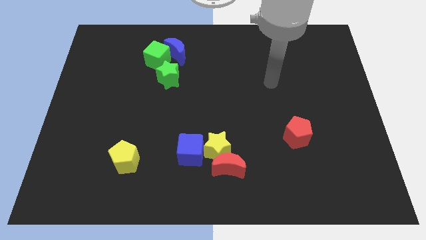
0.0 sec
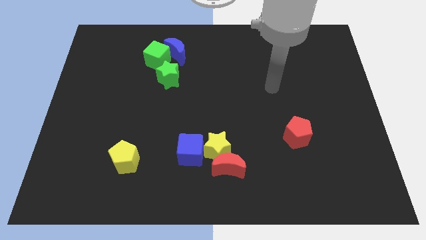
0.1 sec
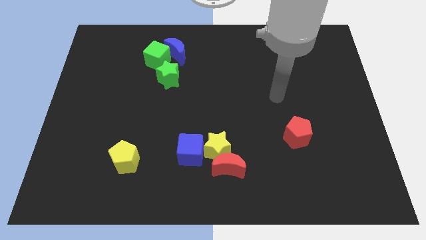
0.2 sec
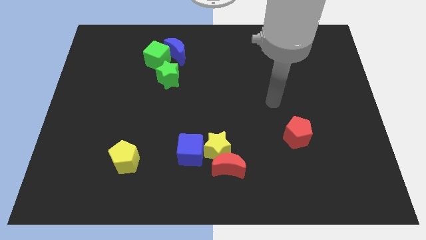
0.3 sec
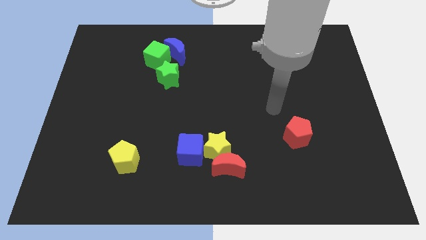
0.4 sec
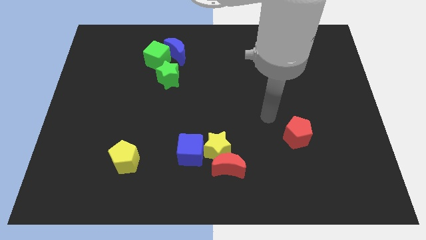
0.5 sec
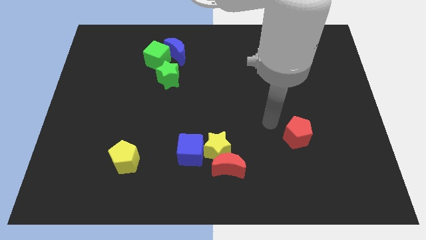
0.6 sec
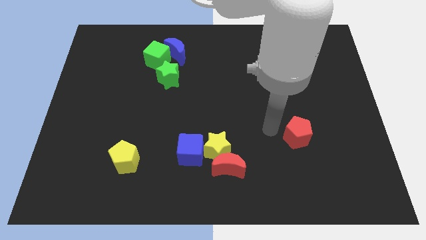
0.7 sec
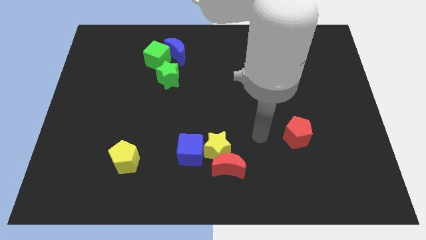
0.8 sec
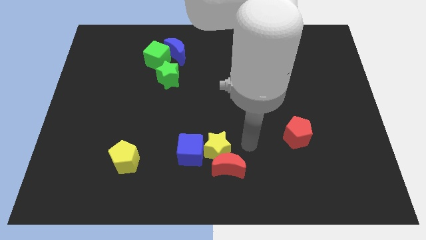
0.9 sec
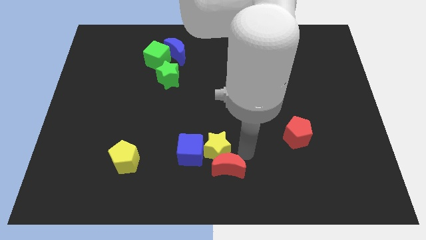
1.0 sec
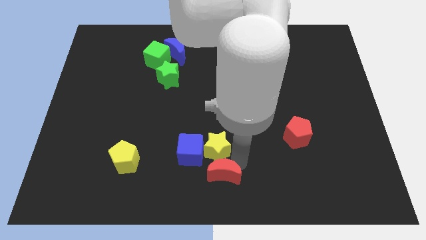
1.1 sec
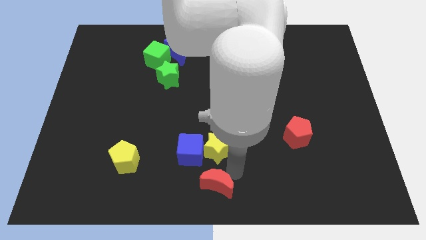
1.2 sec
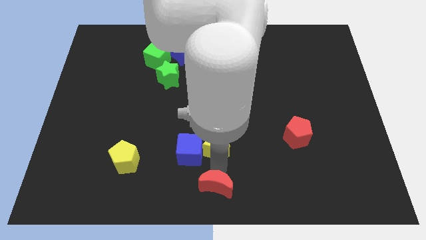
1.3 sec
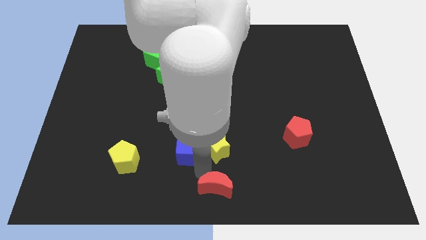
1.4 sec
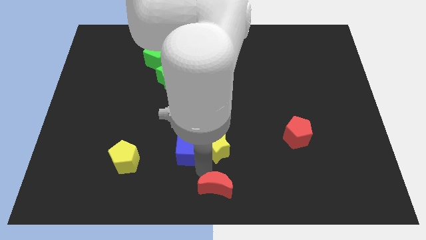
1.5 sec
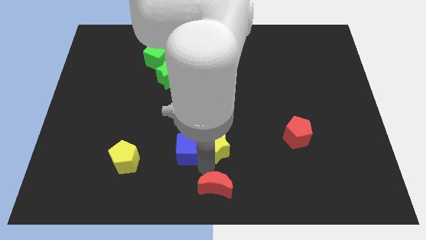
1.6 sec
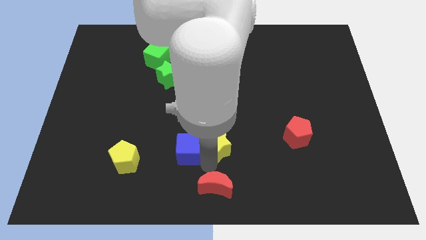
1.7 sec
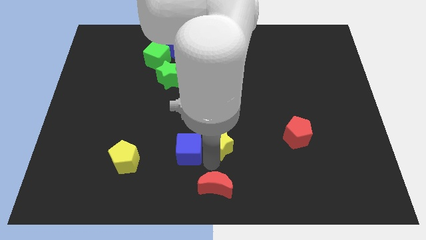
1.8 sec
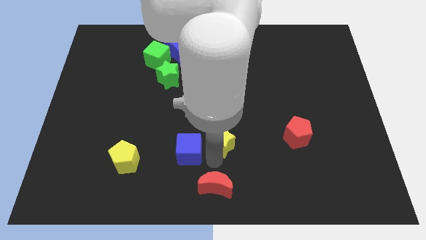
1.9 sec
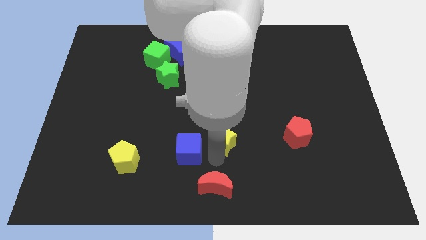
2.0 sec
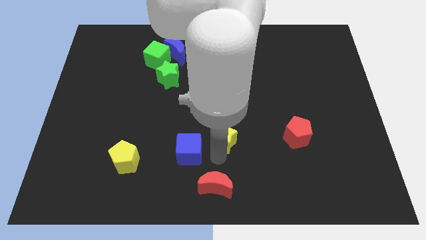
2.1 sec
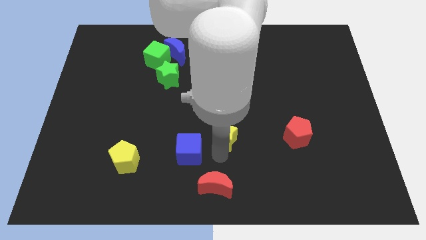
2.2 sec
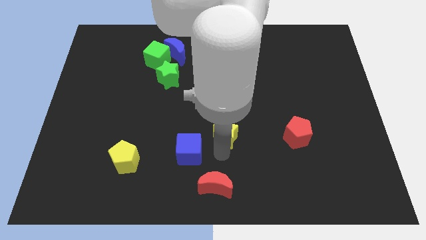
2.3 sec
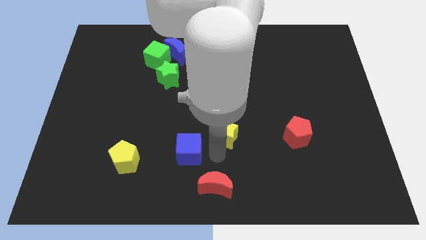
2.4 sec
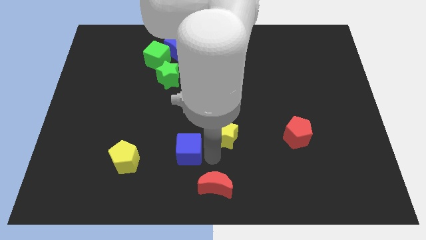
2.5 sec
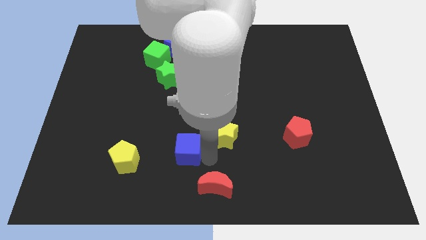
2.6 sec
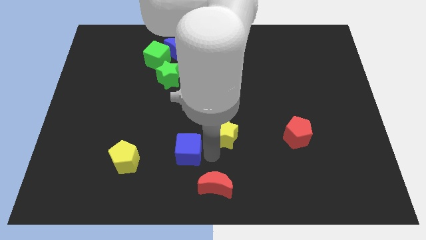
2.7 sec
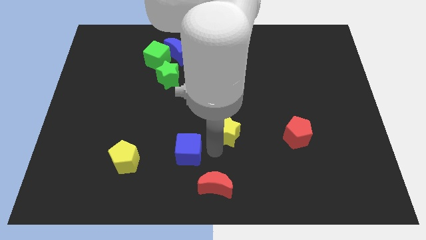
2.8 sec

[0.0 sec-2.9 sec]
move the yellow star away from the red moon and blue cube

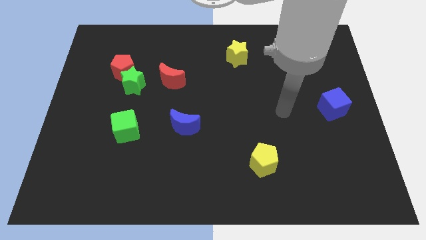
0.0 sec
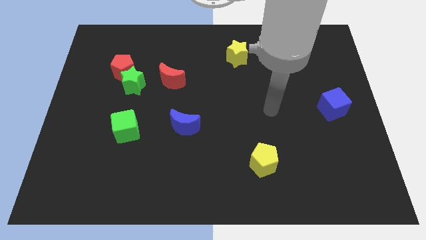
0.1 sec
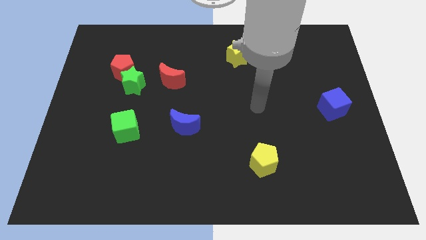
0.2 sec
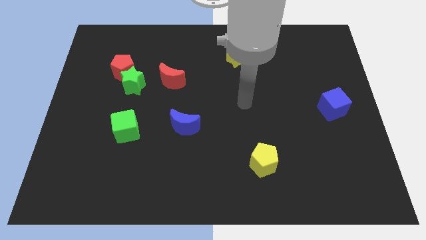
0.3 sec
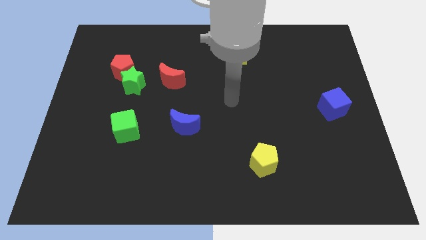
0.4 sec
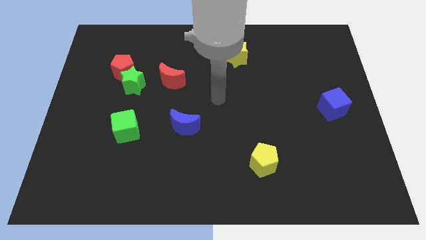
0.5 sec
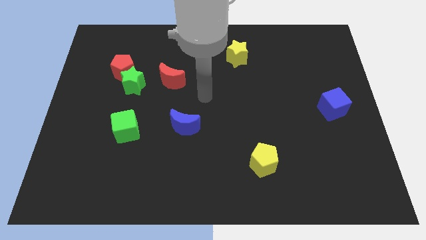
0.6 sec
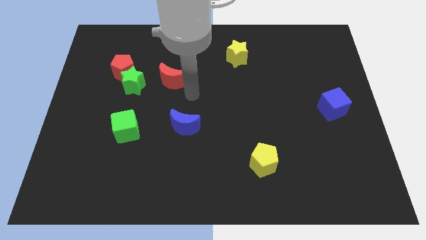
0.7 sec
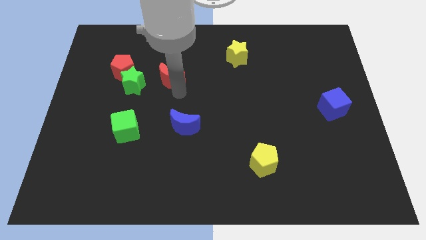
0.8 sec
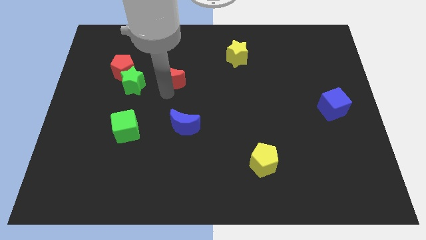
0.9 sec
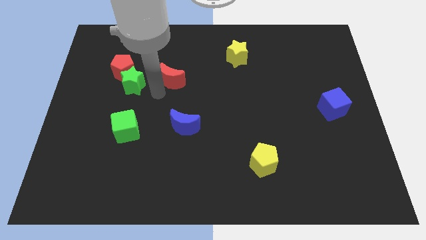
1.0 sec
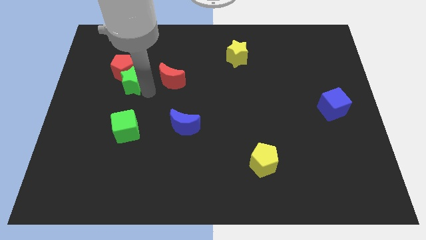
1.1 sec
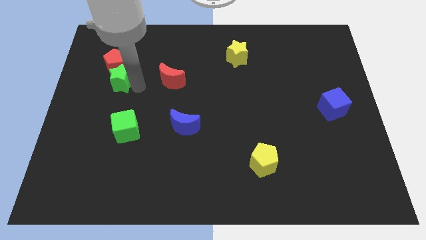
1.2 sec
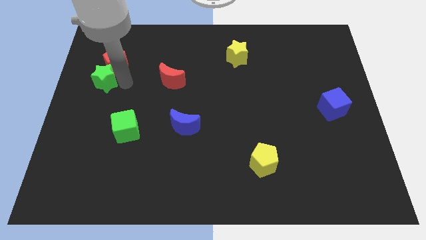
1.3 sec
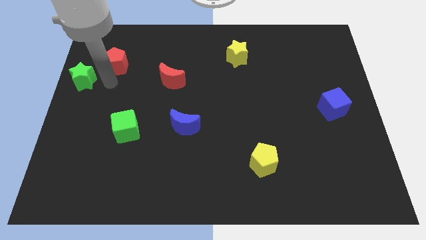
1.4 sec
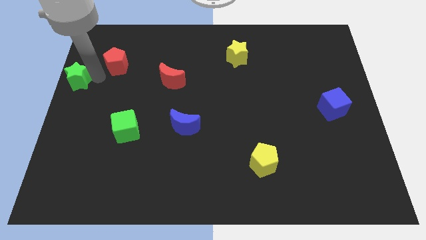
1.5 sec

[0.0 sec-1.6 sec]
pull the red pentagon apart from the green star

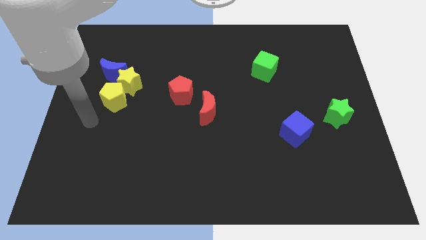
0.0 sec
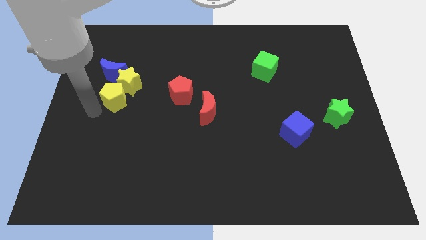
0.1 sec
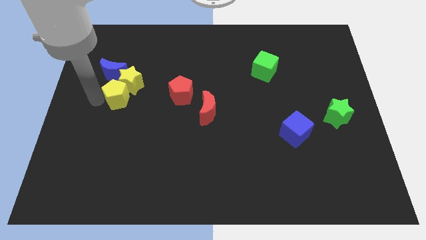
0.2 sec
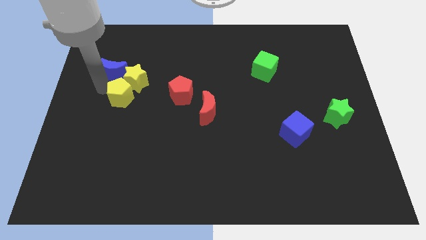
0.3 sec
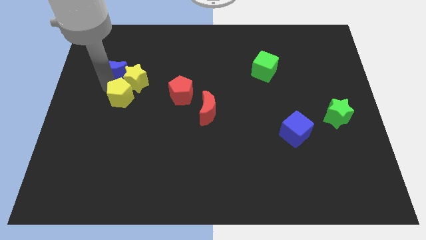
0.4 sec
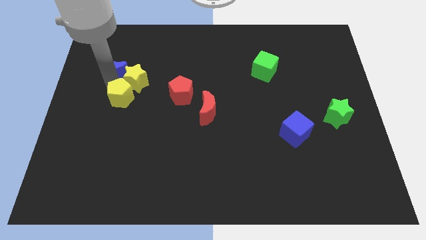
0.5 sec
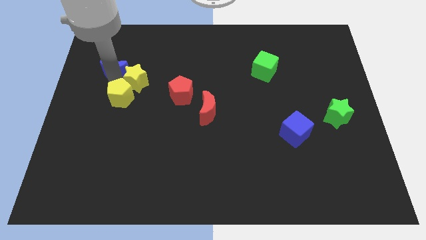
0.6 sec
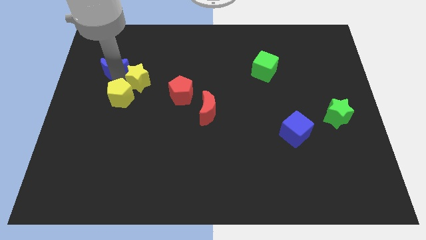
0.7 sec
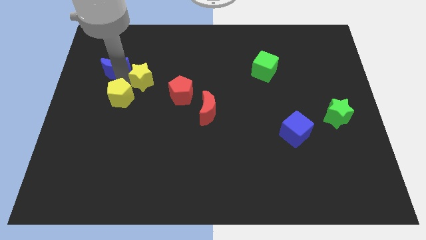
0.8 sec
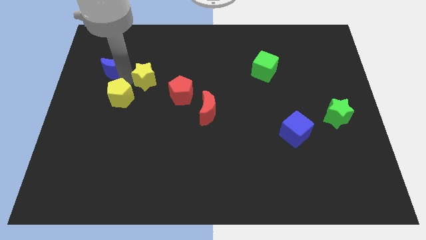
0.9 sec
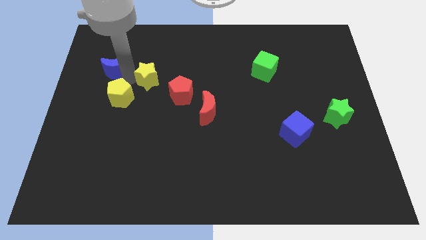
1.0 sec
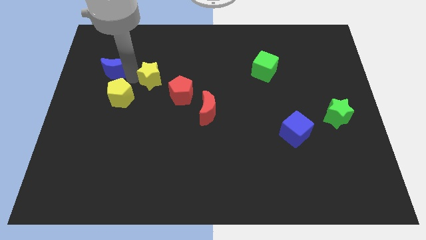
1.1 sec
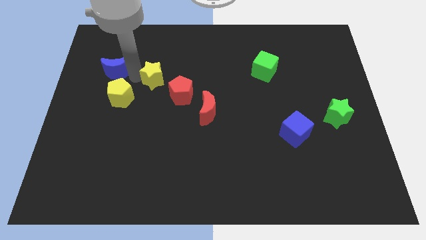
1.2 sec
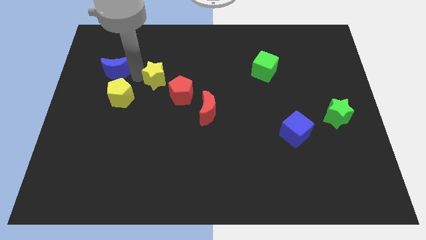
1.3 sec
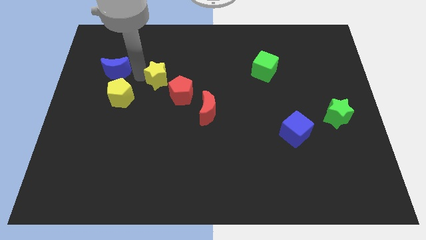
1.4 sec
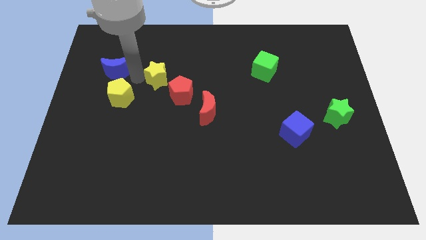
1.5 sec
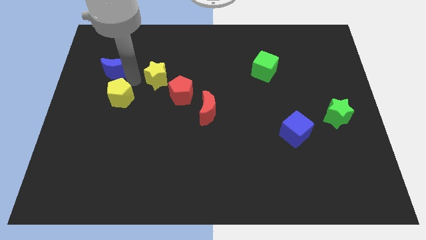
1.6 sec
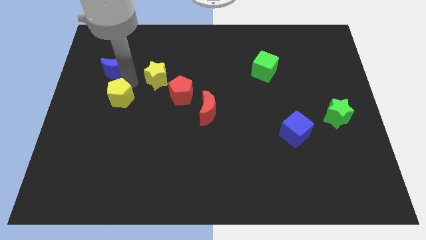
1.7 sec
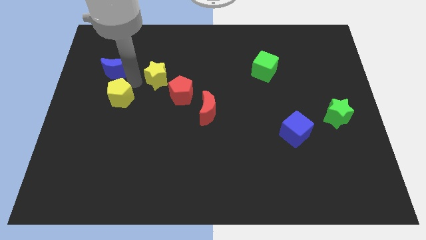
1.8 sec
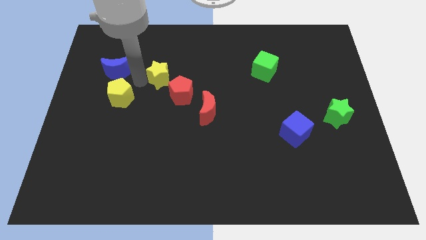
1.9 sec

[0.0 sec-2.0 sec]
move the yellow star away from the yellow pentagon and blue moon

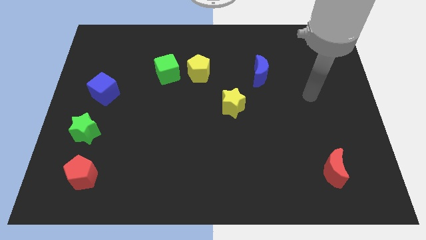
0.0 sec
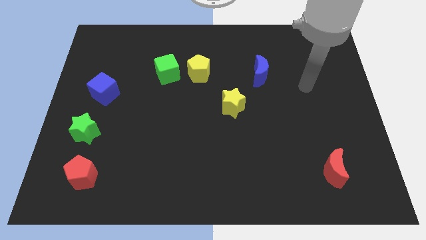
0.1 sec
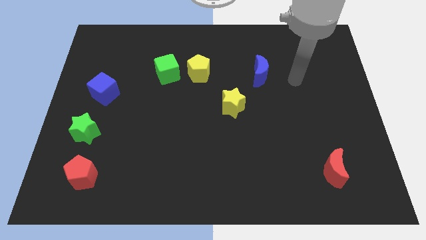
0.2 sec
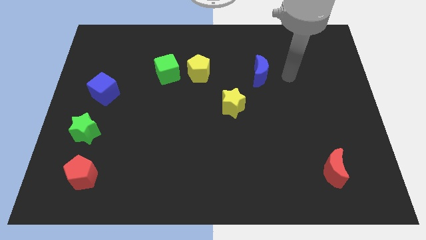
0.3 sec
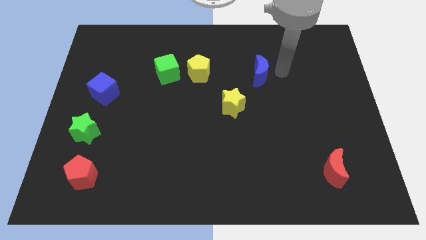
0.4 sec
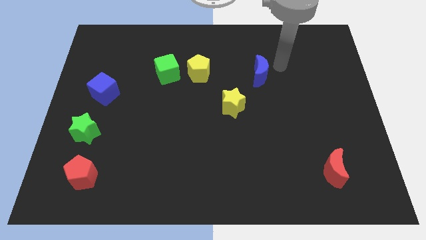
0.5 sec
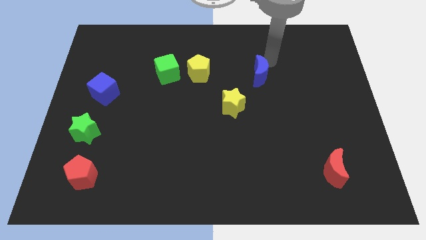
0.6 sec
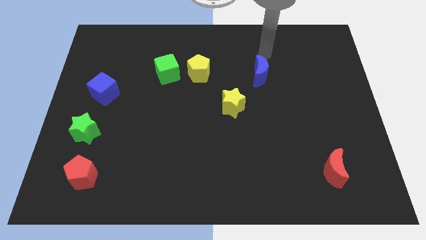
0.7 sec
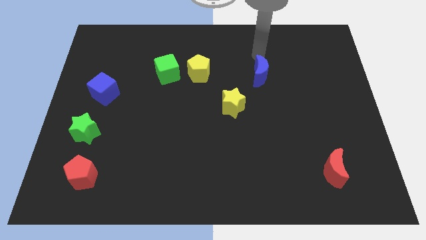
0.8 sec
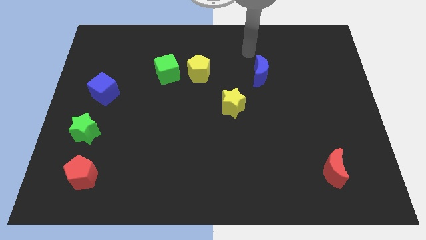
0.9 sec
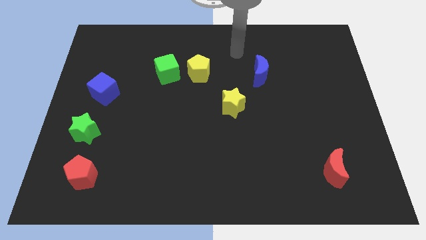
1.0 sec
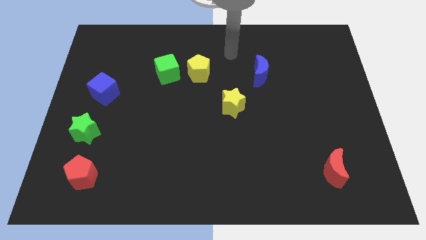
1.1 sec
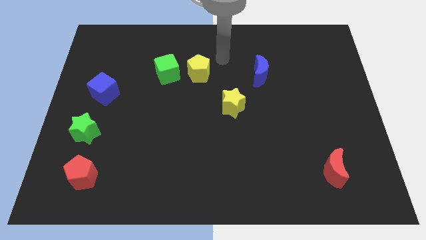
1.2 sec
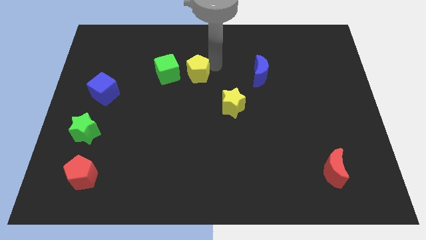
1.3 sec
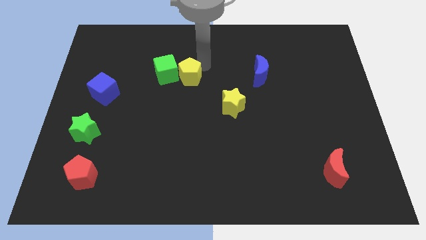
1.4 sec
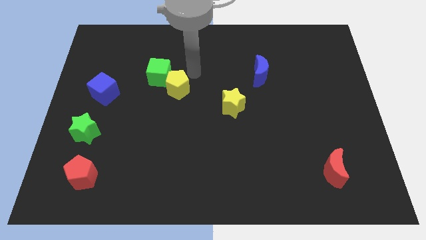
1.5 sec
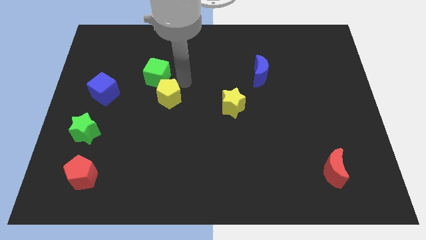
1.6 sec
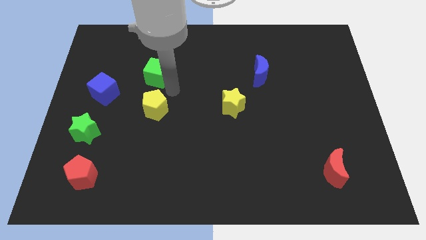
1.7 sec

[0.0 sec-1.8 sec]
move the green cube away from the yellow pentagon

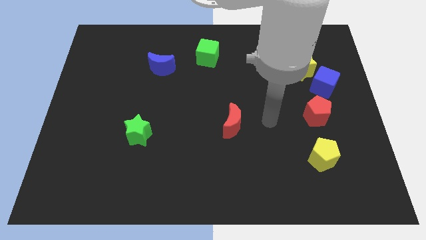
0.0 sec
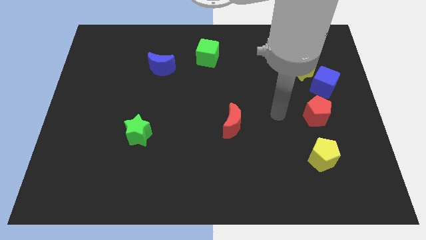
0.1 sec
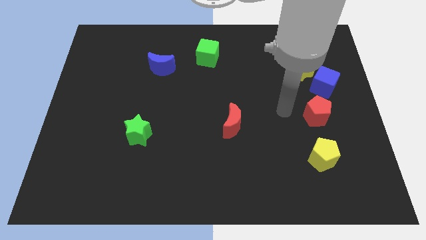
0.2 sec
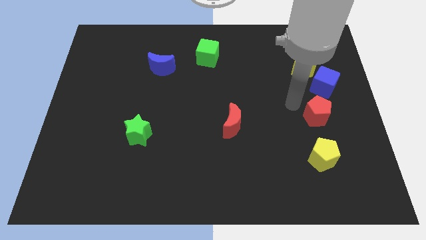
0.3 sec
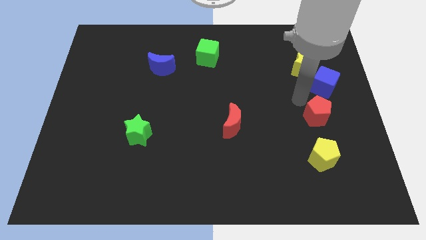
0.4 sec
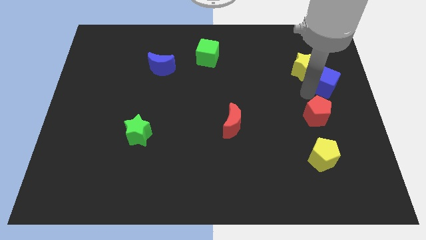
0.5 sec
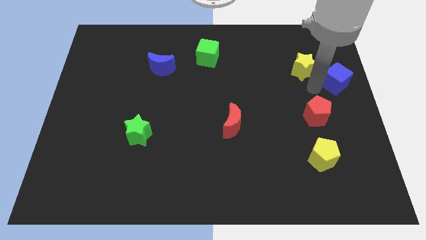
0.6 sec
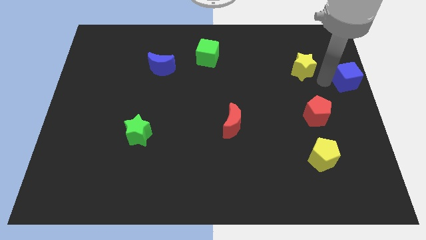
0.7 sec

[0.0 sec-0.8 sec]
separate the yellow star from the blue cube

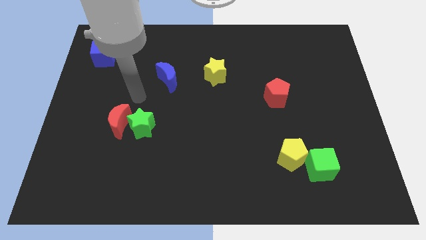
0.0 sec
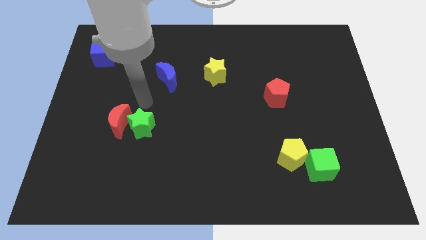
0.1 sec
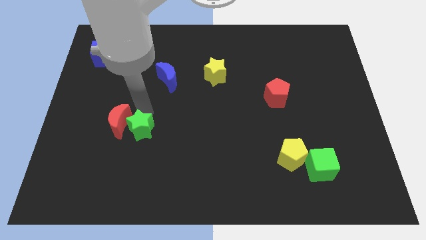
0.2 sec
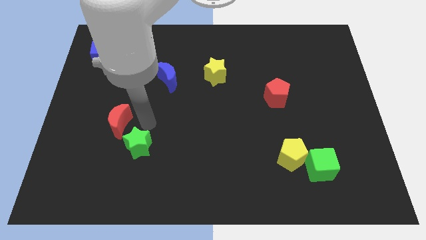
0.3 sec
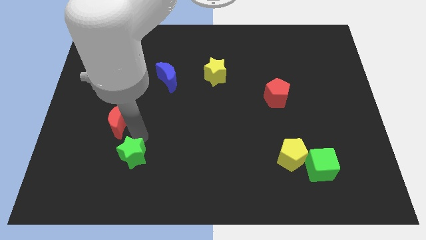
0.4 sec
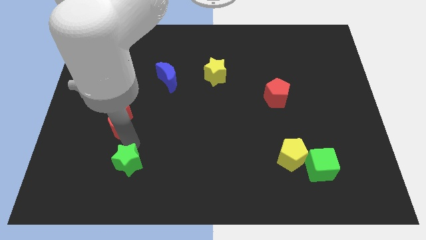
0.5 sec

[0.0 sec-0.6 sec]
separate the red moon from the green star
